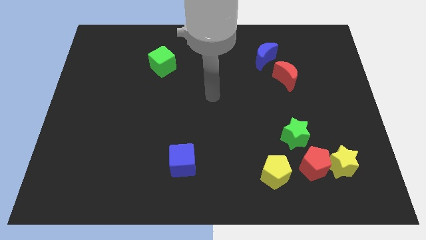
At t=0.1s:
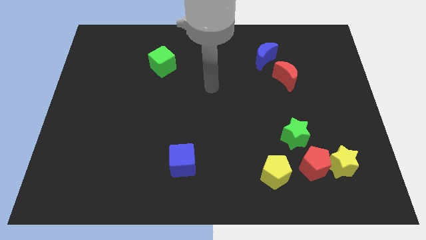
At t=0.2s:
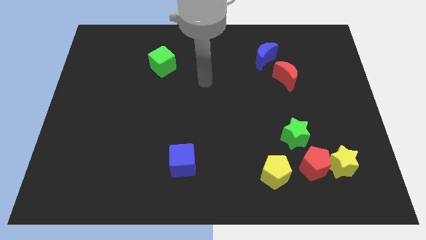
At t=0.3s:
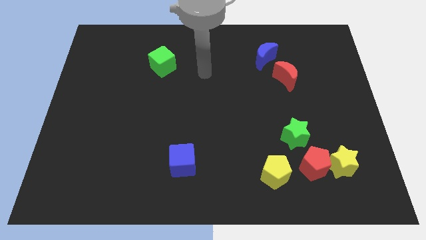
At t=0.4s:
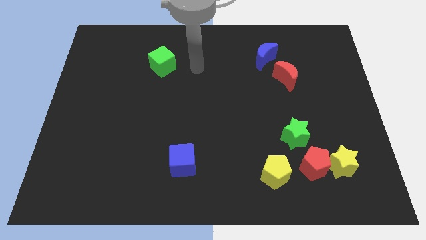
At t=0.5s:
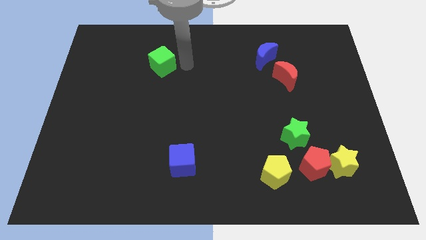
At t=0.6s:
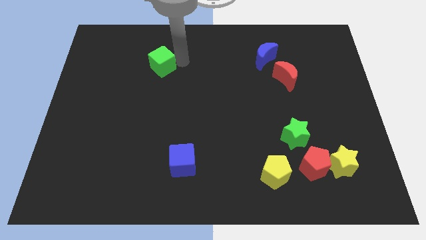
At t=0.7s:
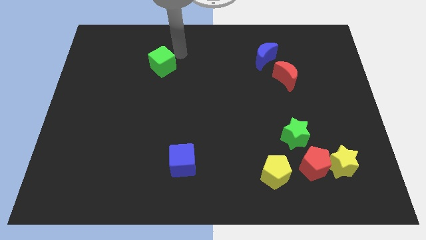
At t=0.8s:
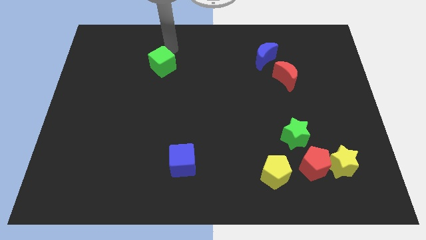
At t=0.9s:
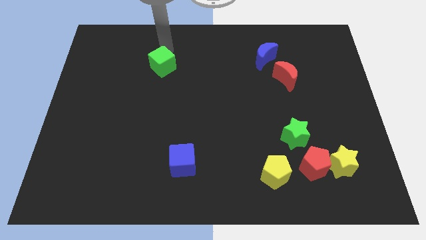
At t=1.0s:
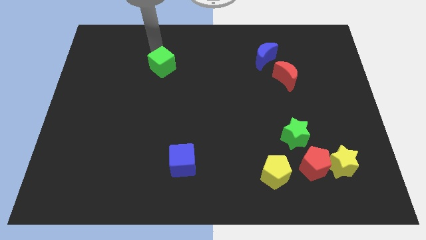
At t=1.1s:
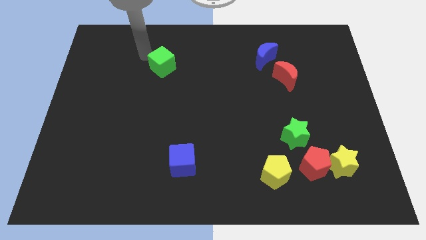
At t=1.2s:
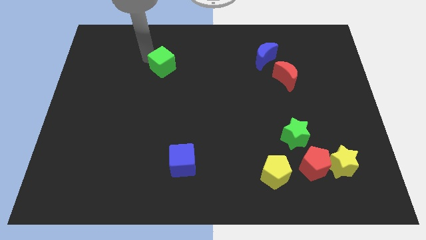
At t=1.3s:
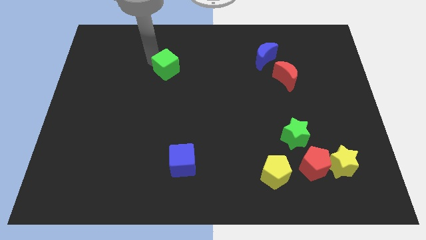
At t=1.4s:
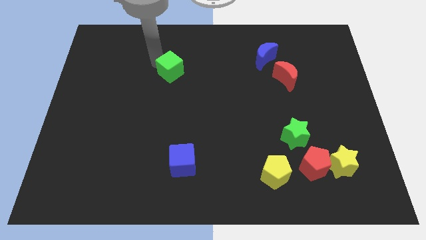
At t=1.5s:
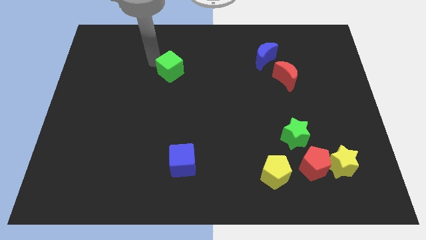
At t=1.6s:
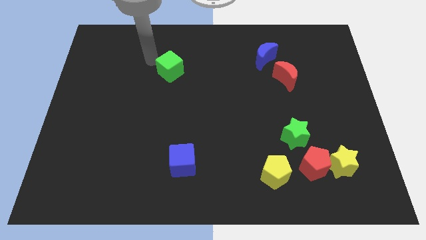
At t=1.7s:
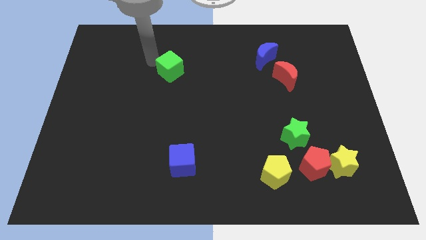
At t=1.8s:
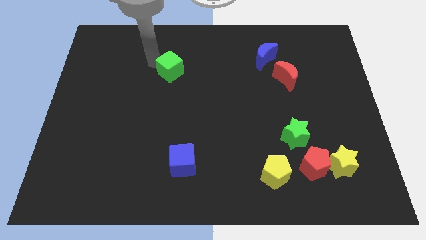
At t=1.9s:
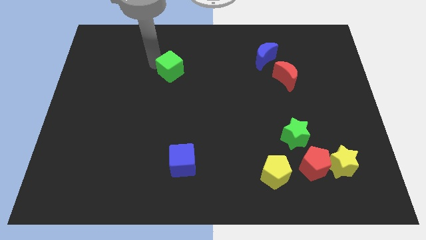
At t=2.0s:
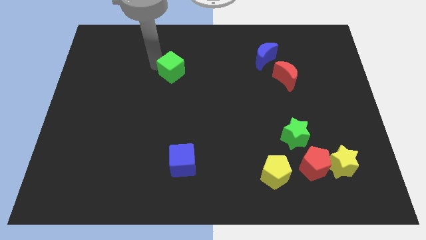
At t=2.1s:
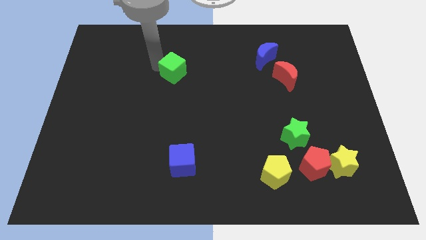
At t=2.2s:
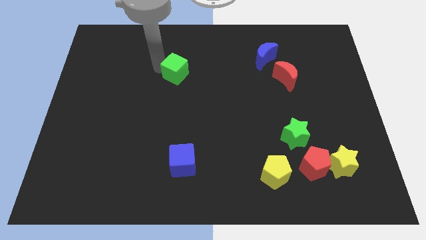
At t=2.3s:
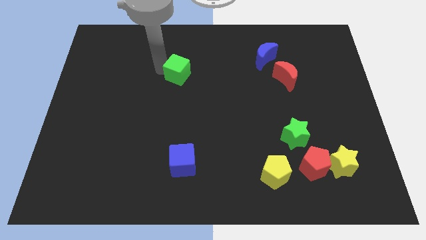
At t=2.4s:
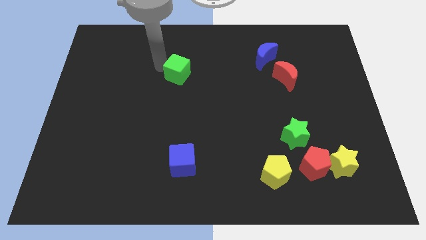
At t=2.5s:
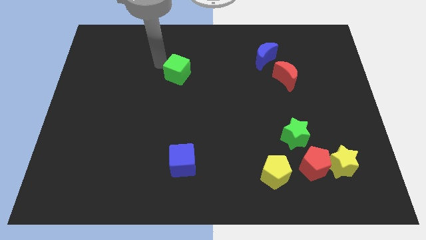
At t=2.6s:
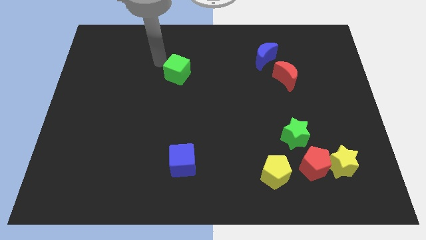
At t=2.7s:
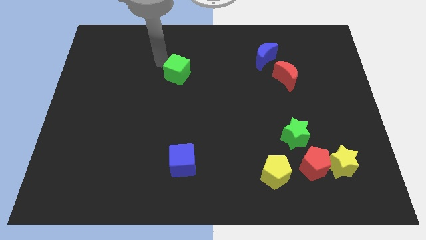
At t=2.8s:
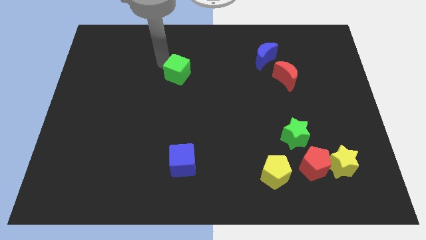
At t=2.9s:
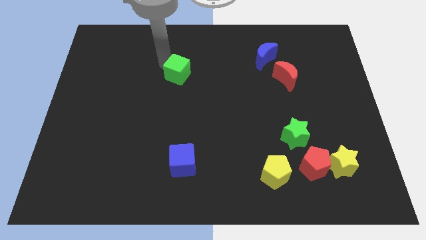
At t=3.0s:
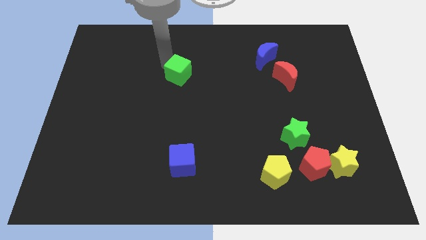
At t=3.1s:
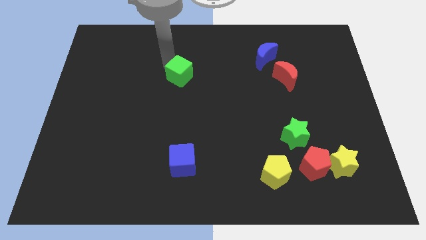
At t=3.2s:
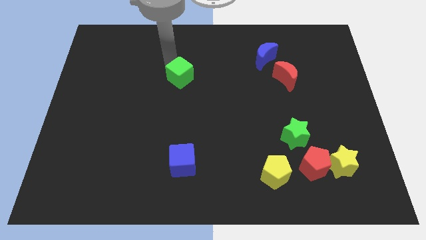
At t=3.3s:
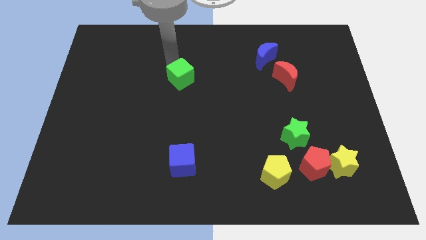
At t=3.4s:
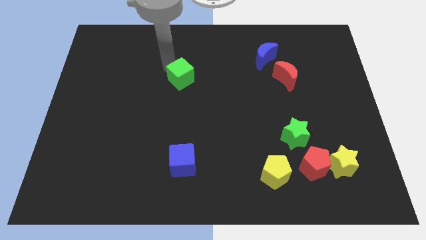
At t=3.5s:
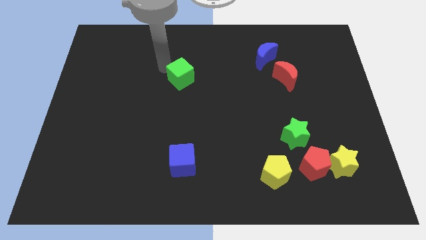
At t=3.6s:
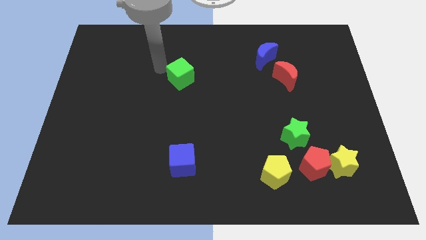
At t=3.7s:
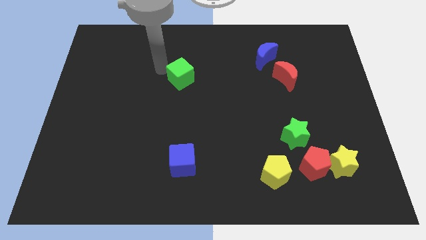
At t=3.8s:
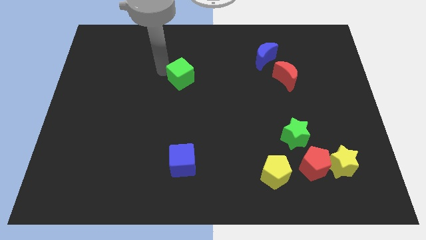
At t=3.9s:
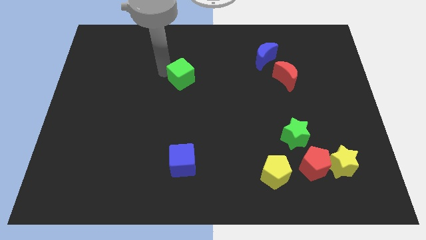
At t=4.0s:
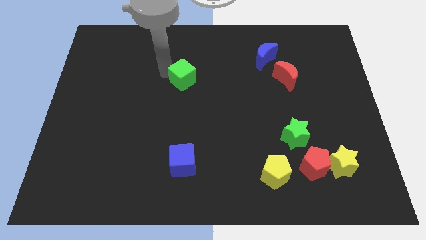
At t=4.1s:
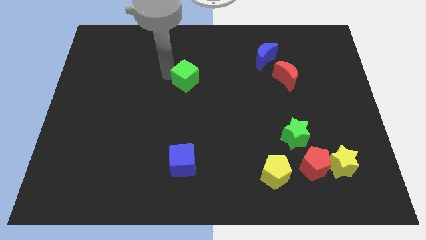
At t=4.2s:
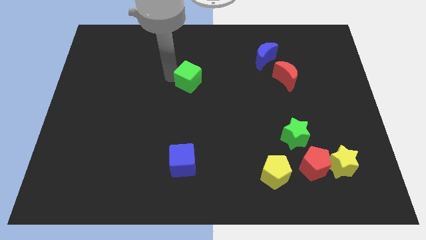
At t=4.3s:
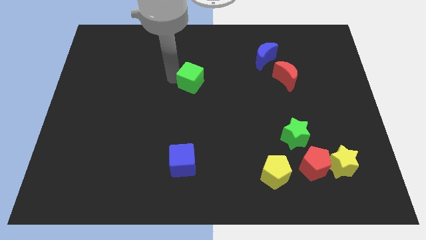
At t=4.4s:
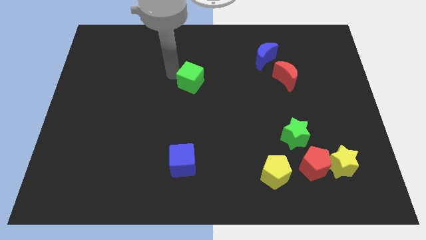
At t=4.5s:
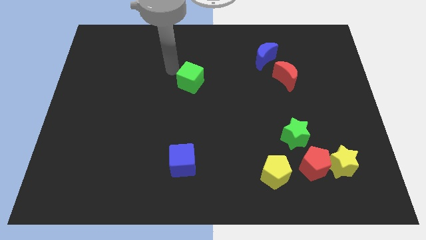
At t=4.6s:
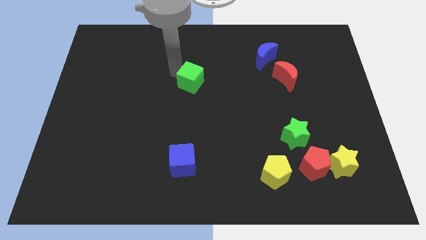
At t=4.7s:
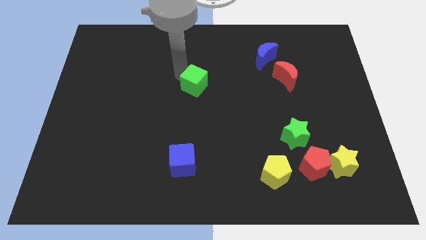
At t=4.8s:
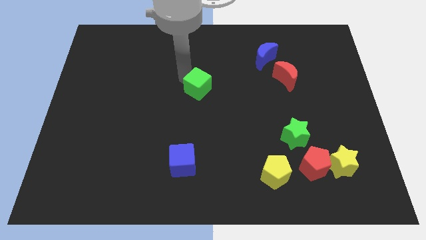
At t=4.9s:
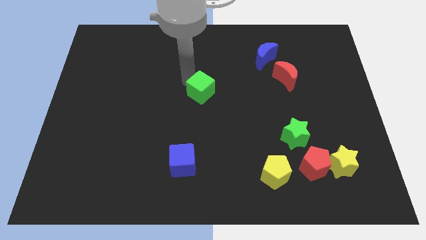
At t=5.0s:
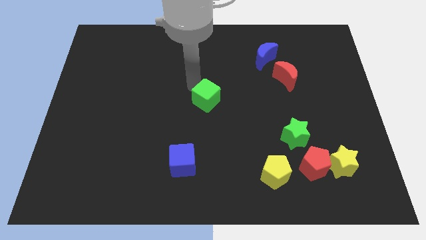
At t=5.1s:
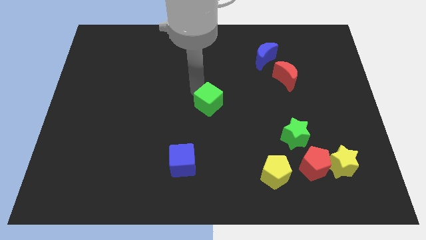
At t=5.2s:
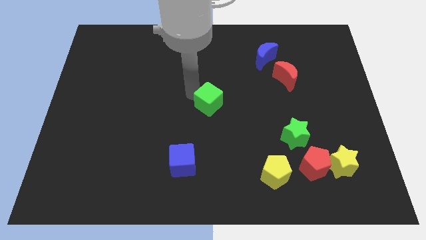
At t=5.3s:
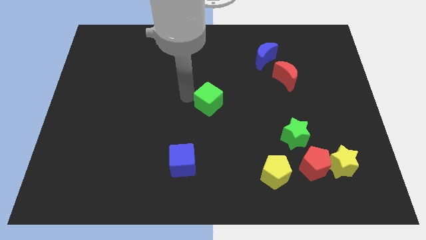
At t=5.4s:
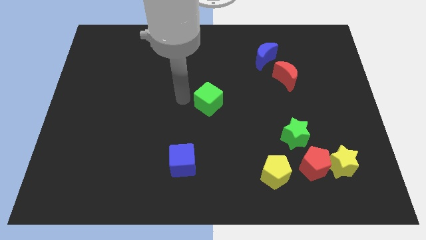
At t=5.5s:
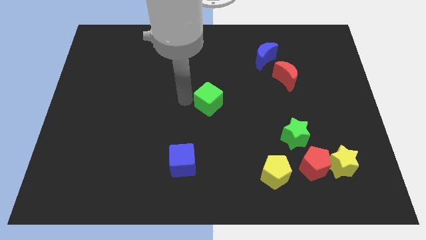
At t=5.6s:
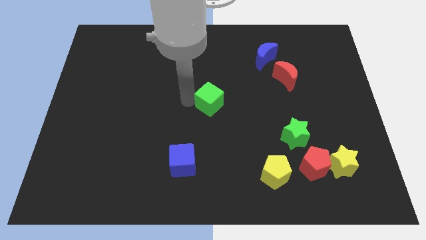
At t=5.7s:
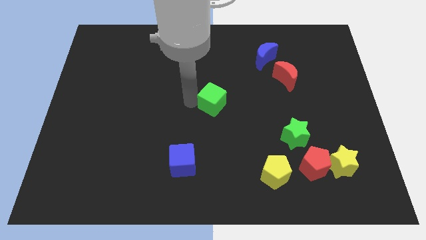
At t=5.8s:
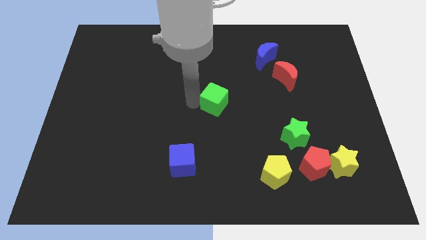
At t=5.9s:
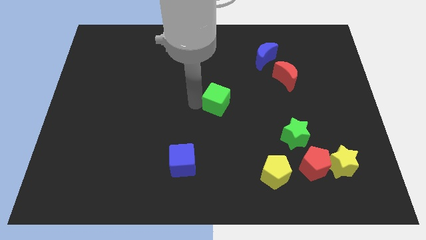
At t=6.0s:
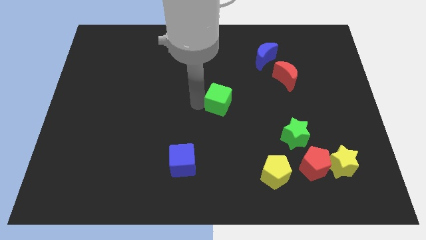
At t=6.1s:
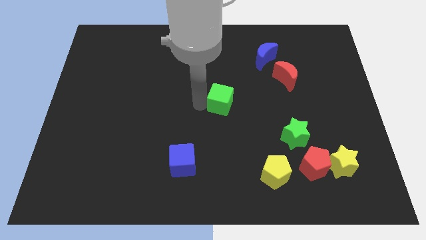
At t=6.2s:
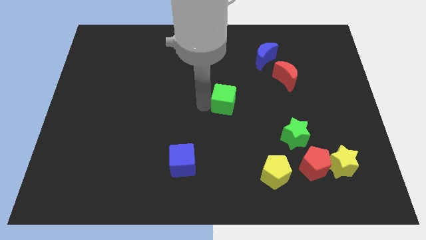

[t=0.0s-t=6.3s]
slide the green cube down and then to the right

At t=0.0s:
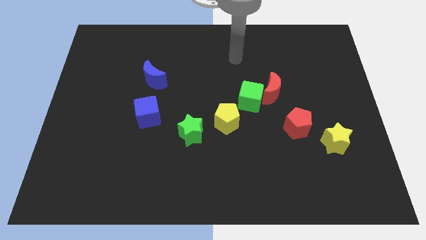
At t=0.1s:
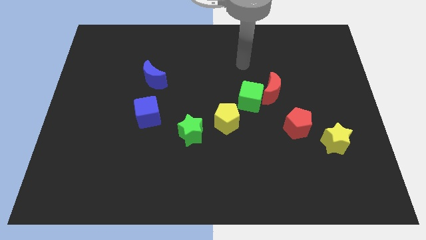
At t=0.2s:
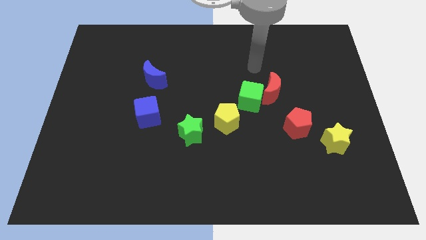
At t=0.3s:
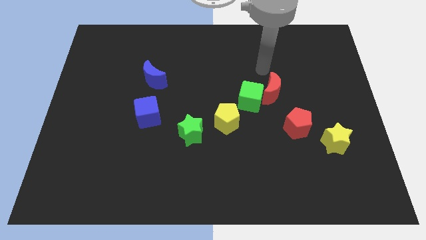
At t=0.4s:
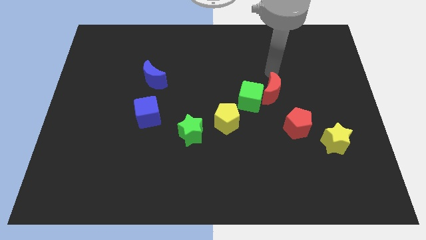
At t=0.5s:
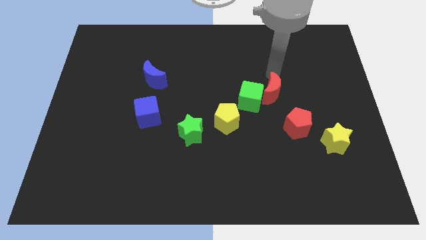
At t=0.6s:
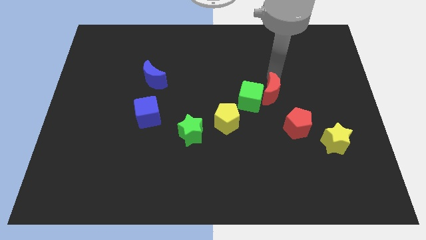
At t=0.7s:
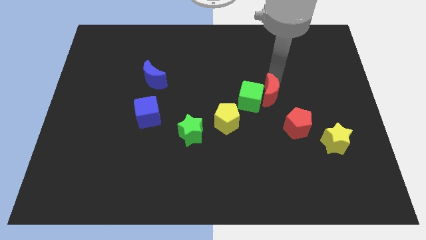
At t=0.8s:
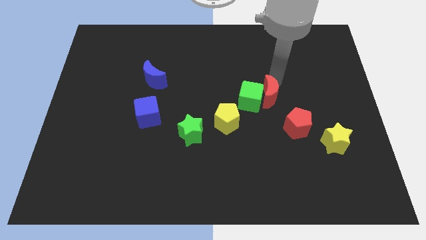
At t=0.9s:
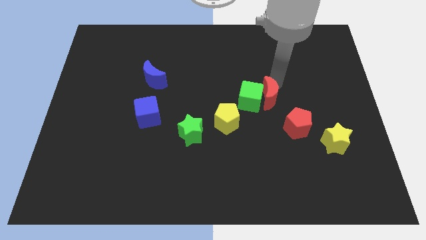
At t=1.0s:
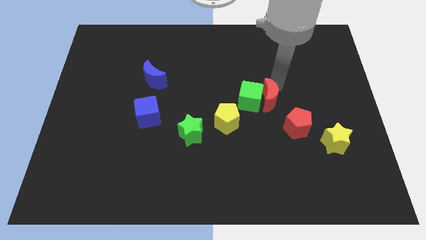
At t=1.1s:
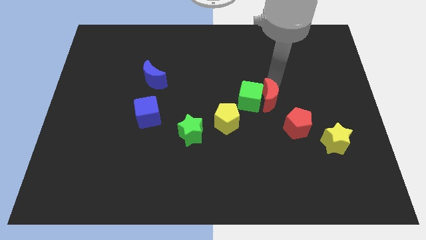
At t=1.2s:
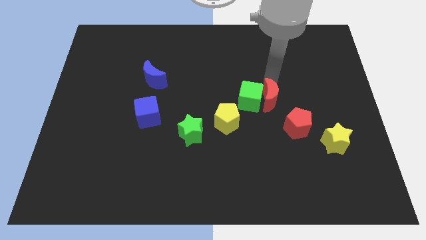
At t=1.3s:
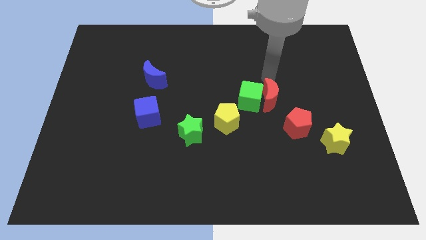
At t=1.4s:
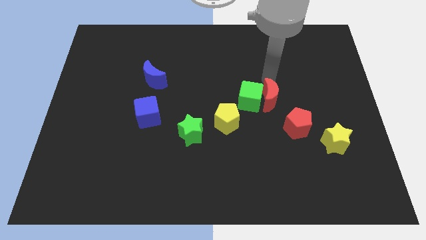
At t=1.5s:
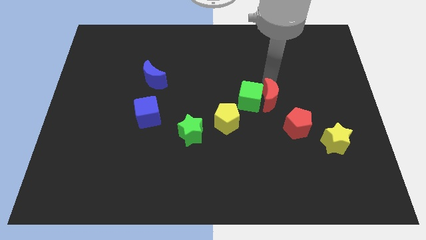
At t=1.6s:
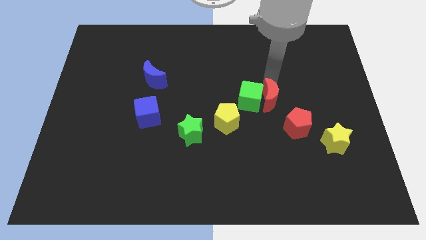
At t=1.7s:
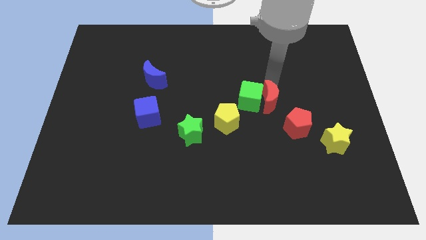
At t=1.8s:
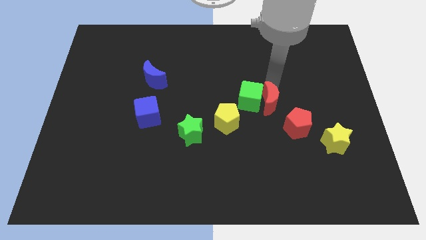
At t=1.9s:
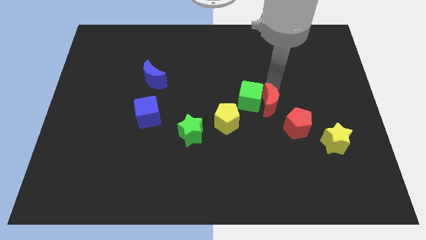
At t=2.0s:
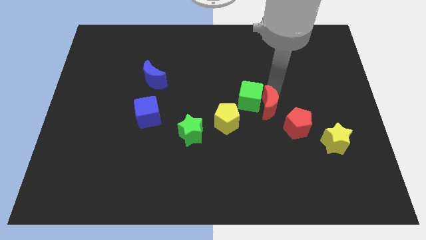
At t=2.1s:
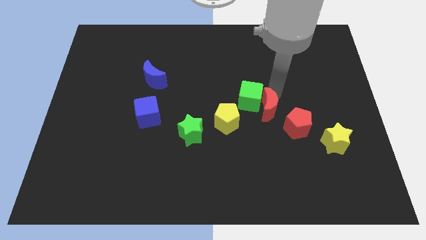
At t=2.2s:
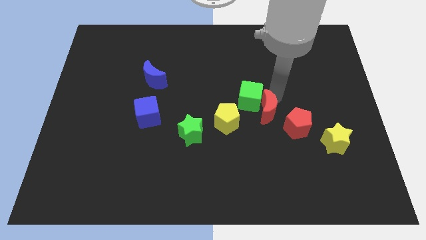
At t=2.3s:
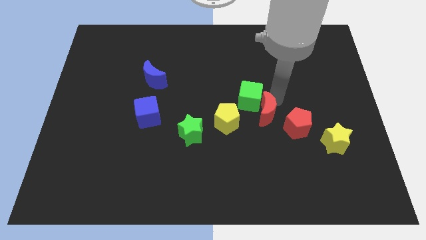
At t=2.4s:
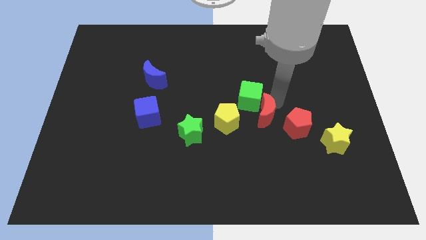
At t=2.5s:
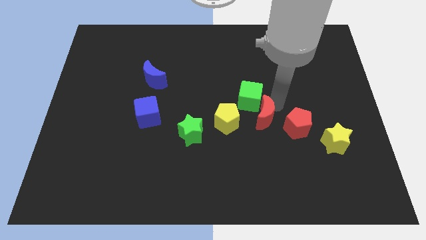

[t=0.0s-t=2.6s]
move the red moon downwards a bit
